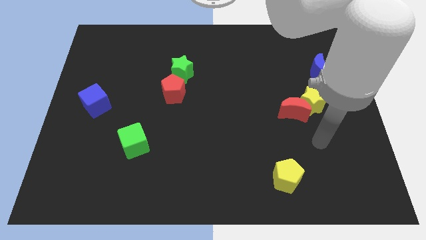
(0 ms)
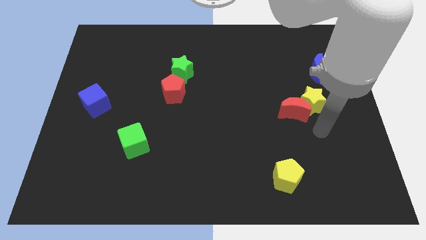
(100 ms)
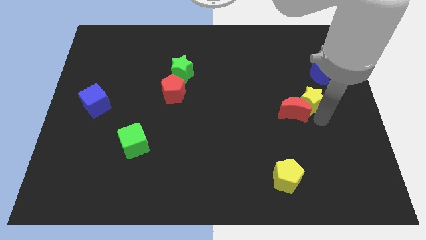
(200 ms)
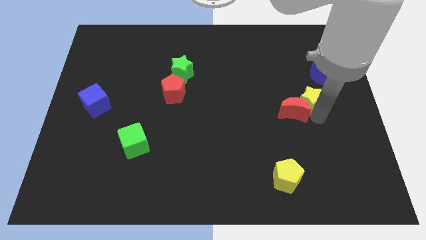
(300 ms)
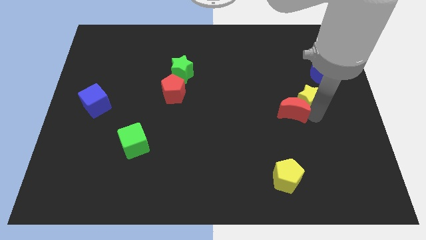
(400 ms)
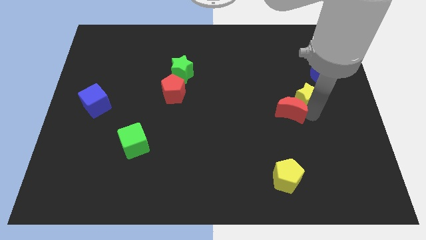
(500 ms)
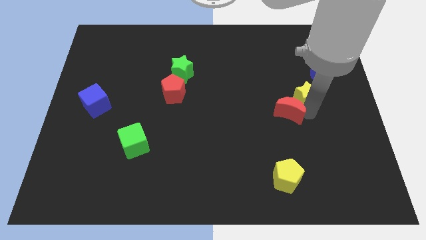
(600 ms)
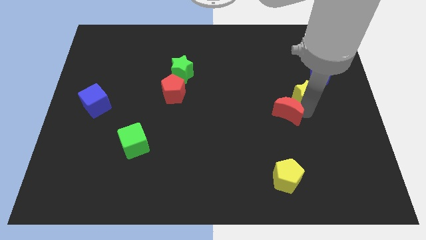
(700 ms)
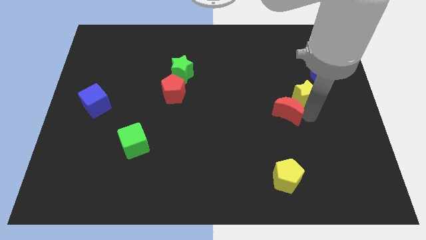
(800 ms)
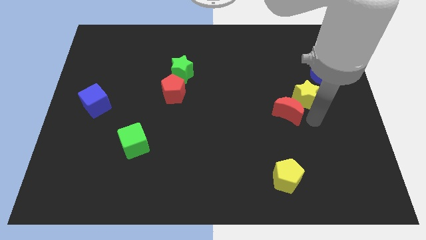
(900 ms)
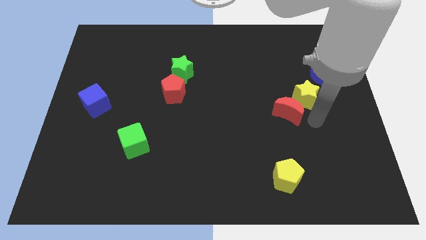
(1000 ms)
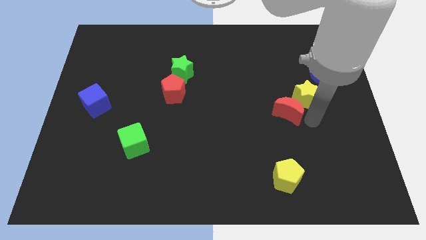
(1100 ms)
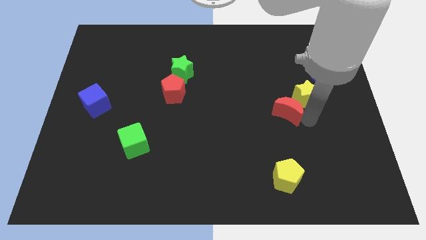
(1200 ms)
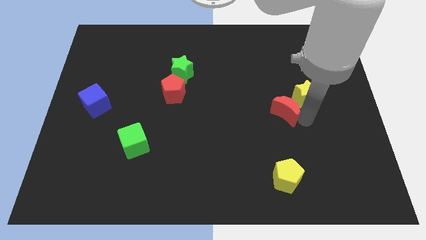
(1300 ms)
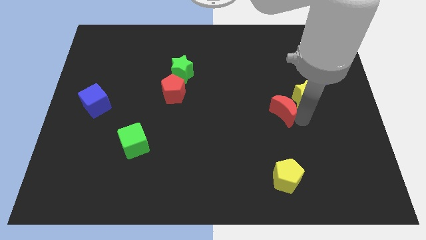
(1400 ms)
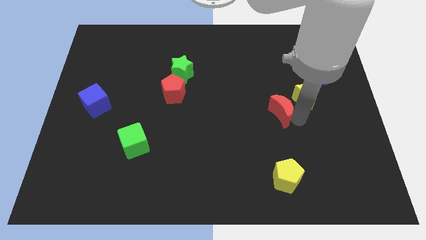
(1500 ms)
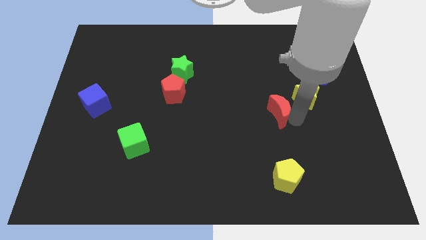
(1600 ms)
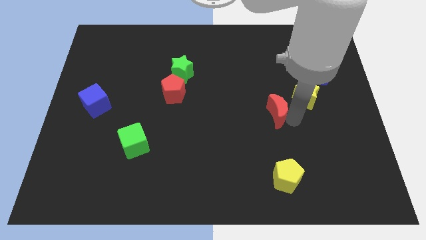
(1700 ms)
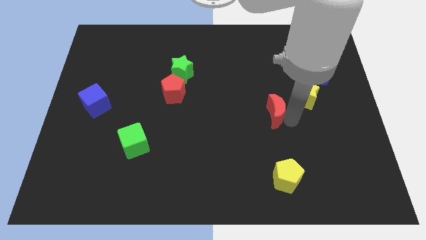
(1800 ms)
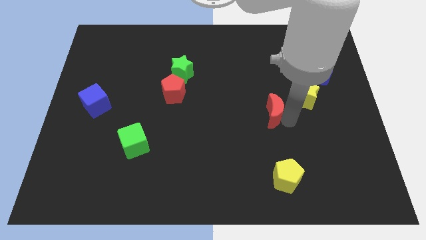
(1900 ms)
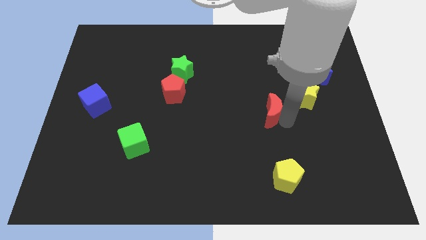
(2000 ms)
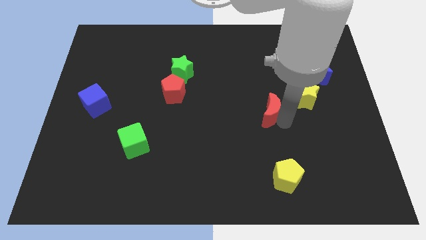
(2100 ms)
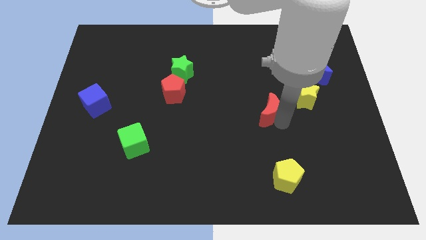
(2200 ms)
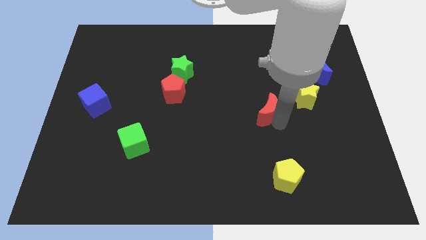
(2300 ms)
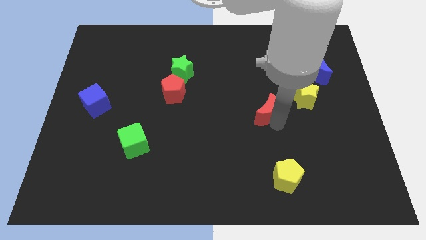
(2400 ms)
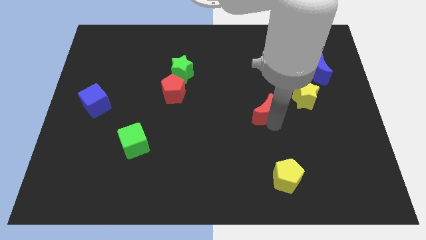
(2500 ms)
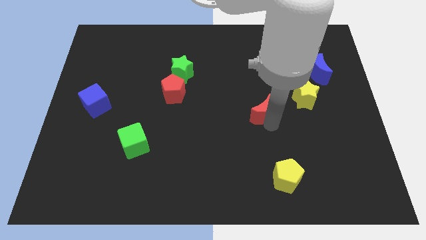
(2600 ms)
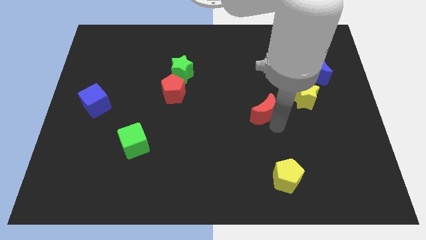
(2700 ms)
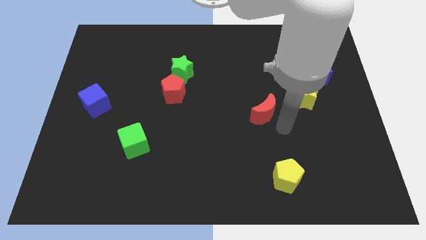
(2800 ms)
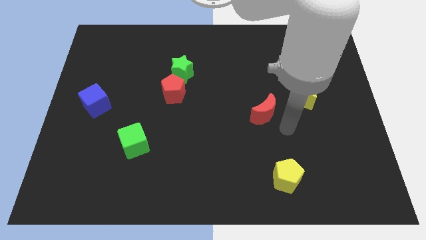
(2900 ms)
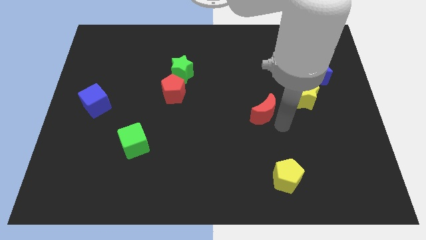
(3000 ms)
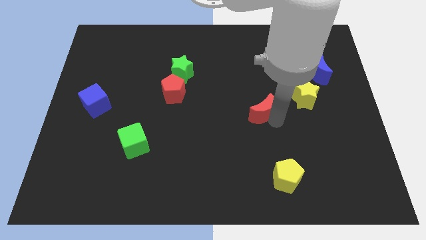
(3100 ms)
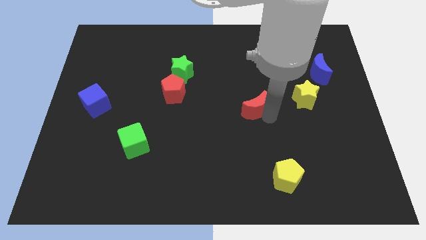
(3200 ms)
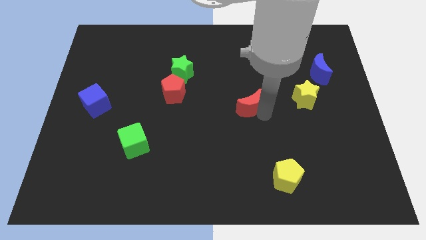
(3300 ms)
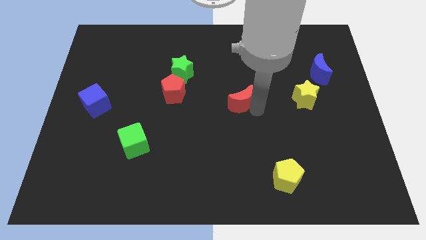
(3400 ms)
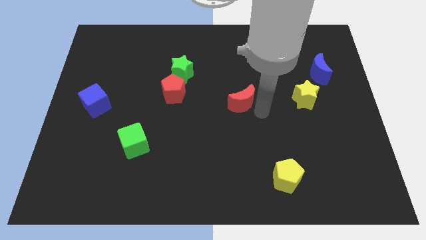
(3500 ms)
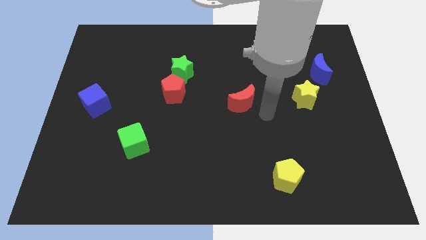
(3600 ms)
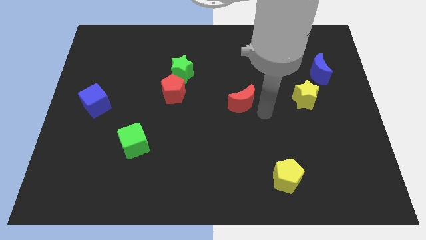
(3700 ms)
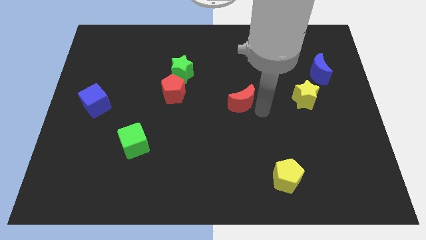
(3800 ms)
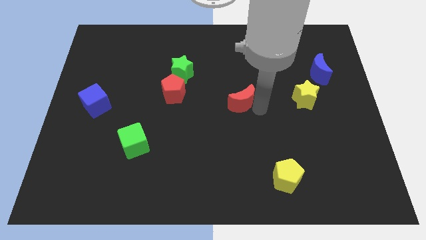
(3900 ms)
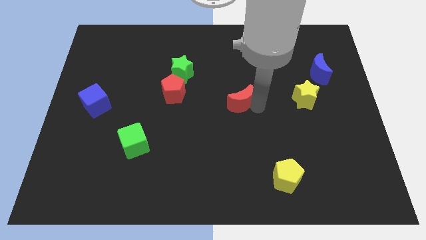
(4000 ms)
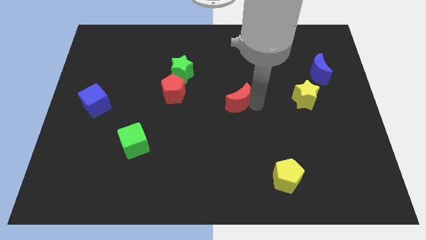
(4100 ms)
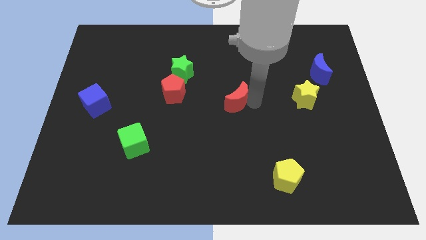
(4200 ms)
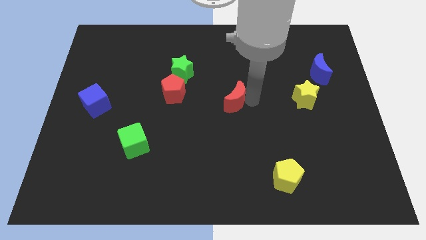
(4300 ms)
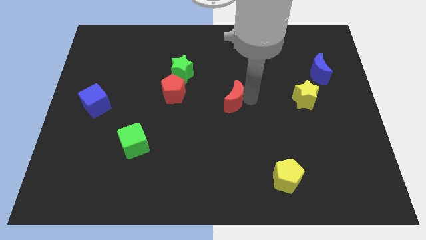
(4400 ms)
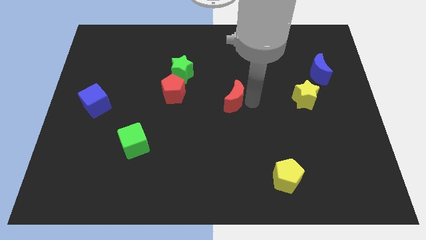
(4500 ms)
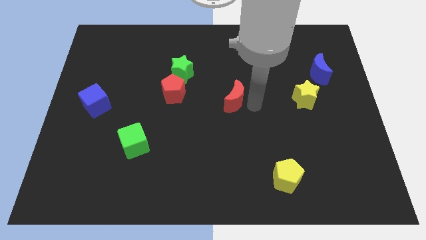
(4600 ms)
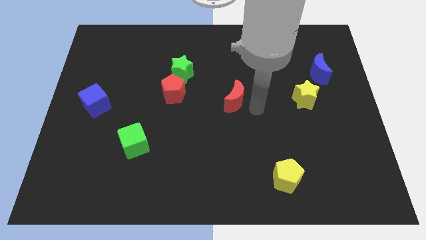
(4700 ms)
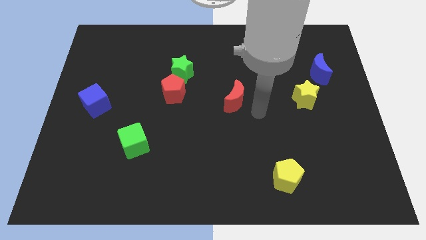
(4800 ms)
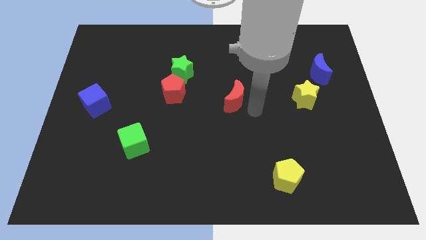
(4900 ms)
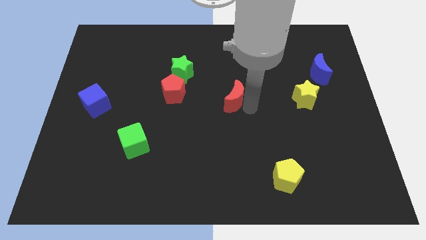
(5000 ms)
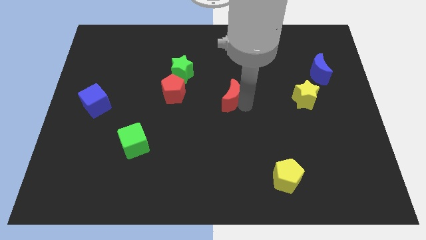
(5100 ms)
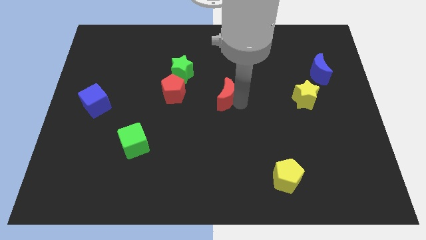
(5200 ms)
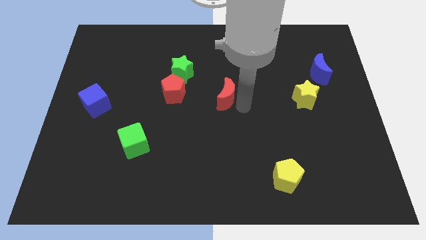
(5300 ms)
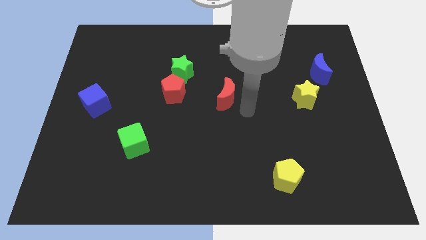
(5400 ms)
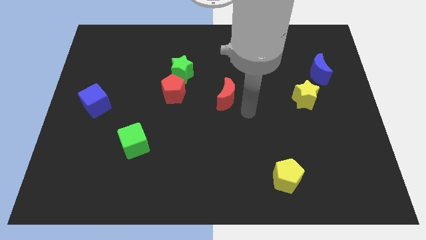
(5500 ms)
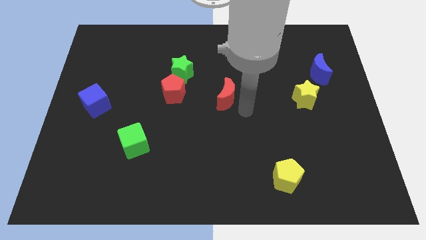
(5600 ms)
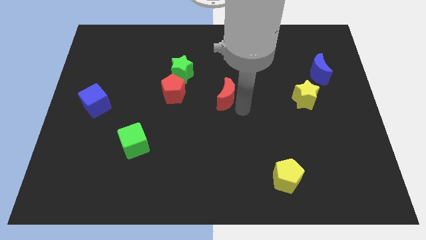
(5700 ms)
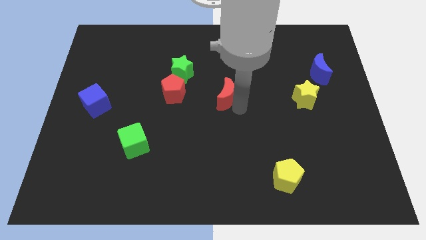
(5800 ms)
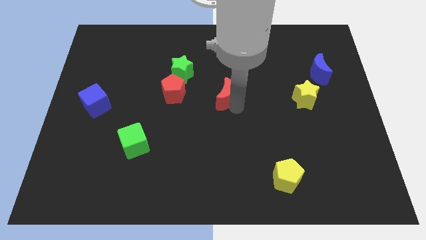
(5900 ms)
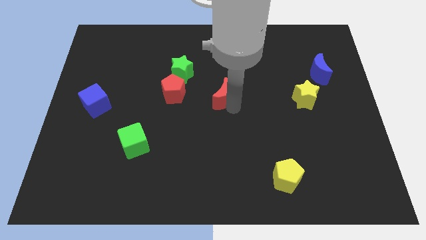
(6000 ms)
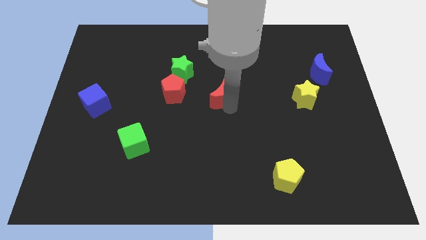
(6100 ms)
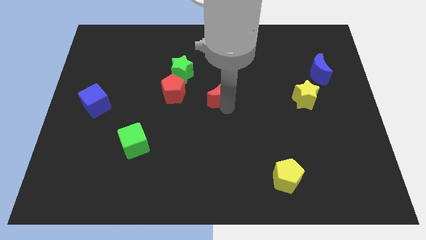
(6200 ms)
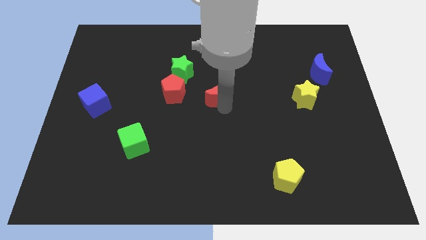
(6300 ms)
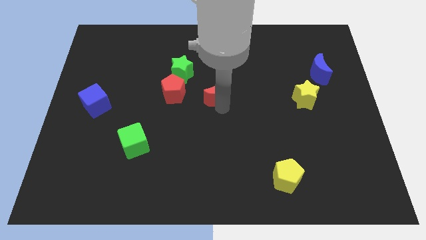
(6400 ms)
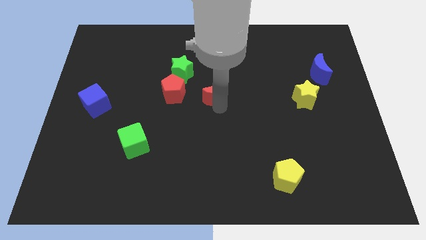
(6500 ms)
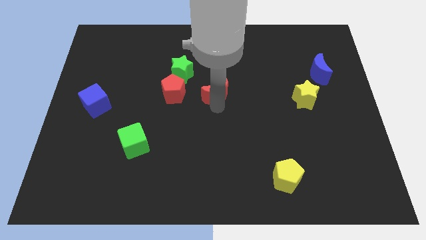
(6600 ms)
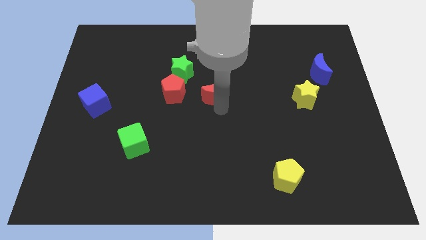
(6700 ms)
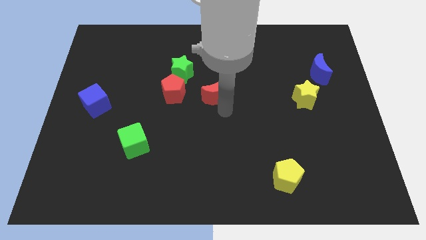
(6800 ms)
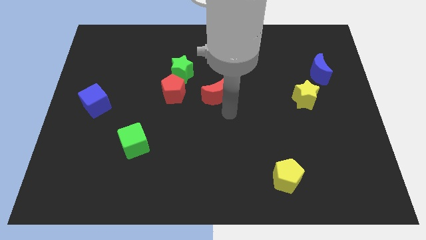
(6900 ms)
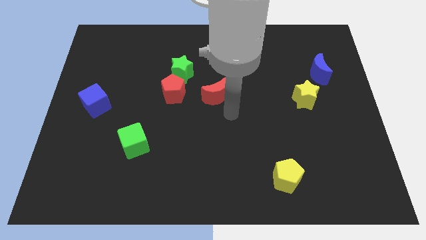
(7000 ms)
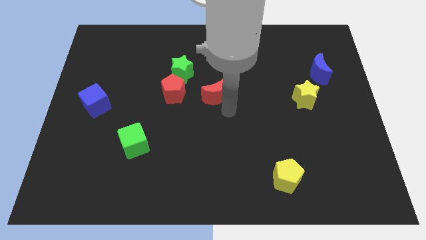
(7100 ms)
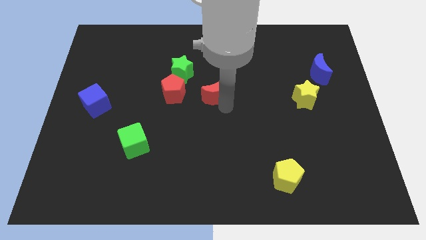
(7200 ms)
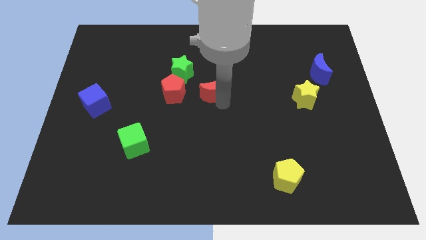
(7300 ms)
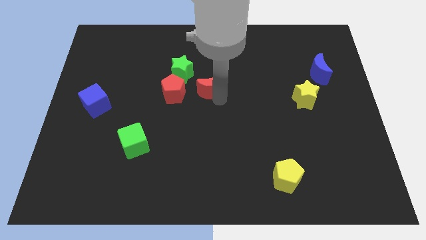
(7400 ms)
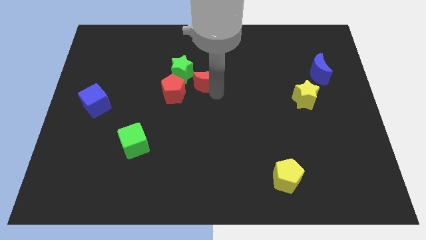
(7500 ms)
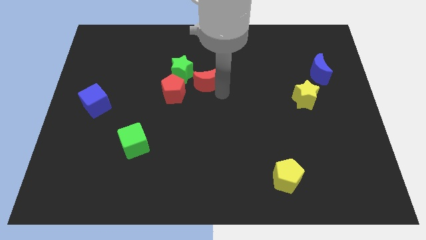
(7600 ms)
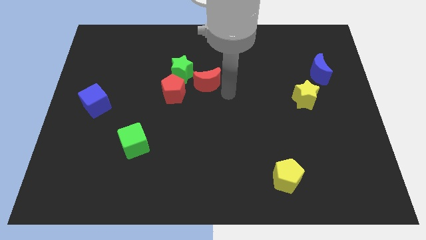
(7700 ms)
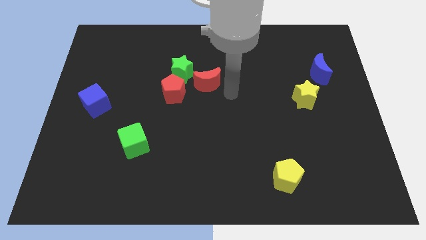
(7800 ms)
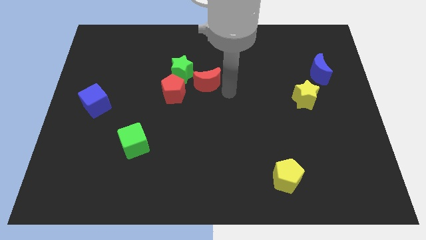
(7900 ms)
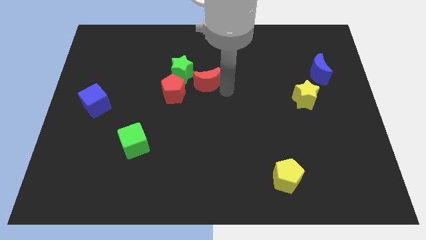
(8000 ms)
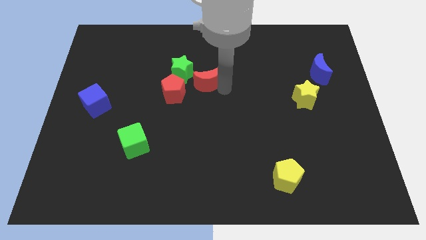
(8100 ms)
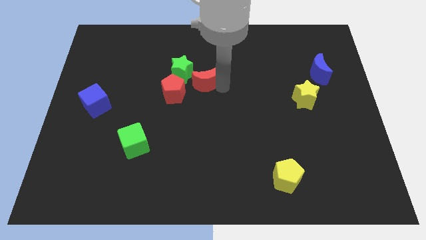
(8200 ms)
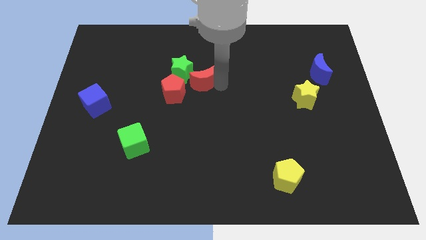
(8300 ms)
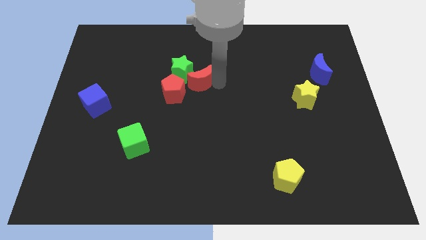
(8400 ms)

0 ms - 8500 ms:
slide the red moon next to the green star
